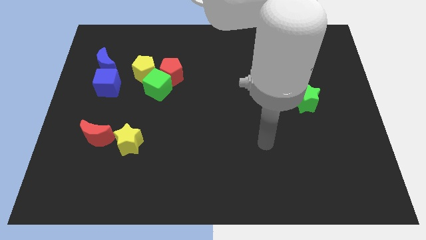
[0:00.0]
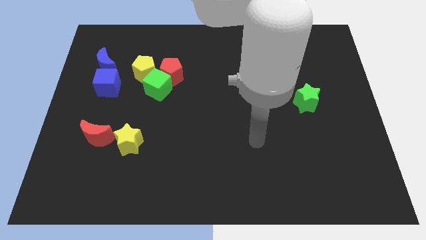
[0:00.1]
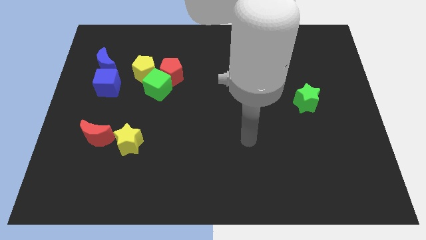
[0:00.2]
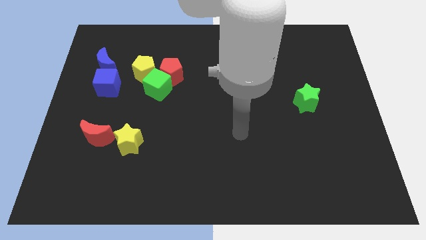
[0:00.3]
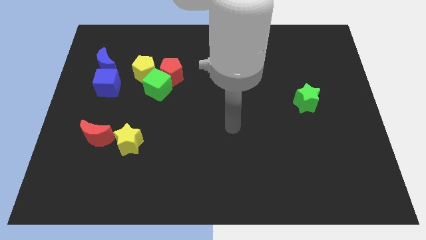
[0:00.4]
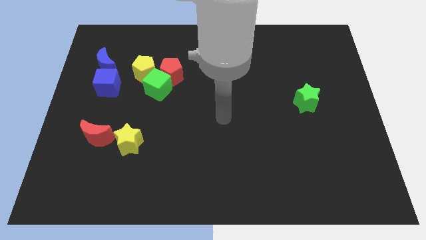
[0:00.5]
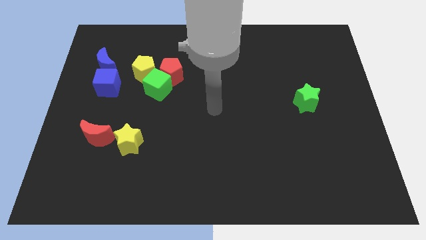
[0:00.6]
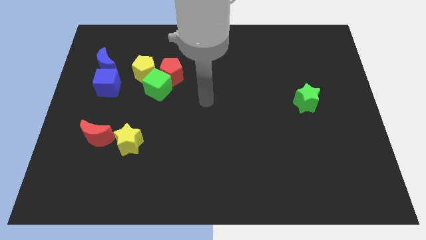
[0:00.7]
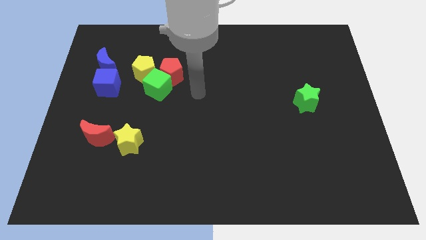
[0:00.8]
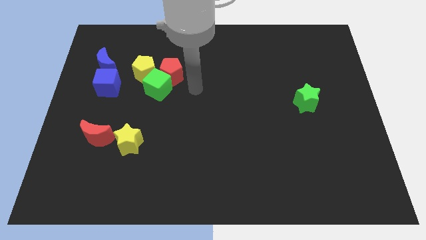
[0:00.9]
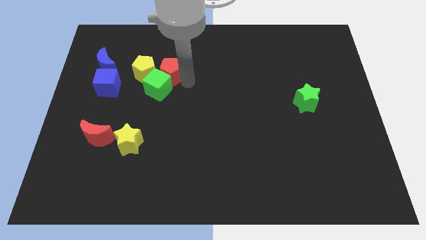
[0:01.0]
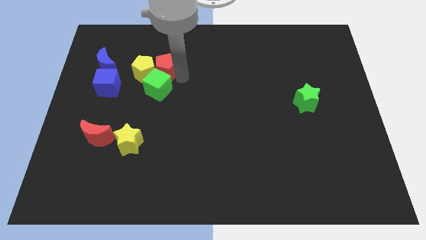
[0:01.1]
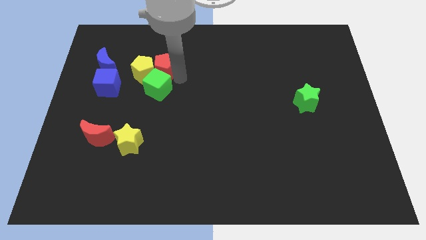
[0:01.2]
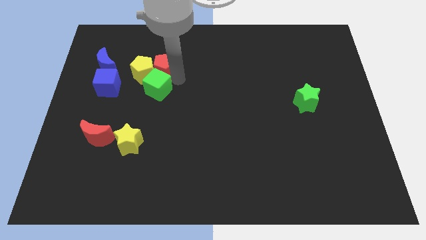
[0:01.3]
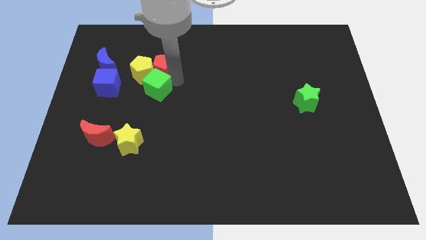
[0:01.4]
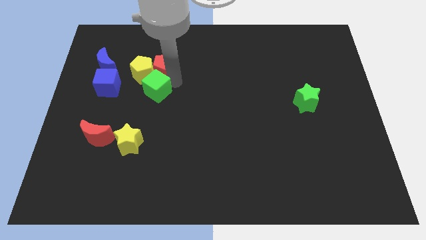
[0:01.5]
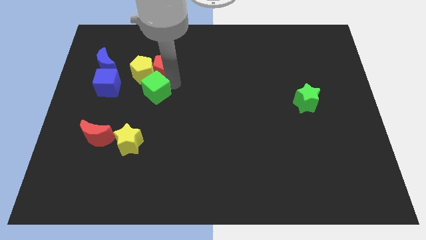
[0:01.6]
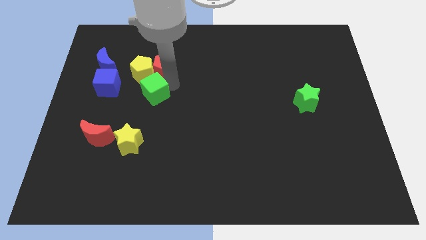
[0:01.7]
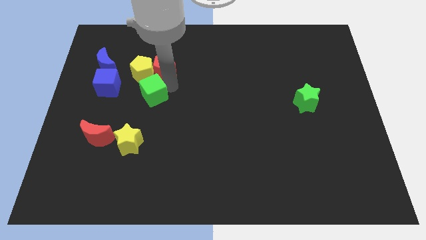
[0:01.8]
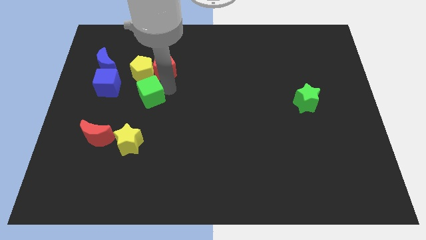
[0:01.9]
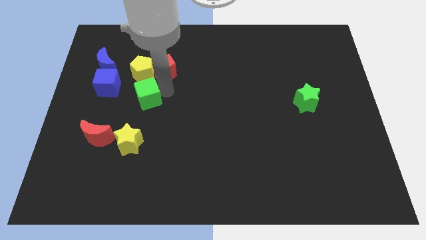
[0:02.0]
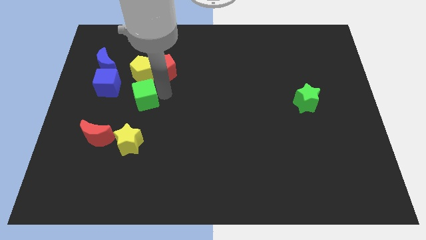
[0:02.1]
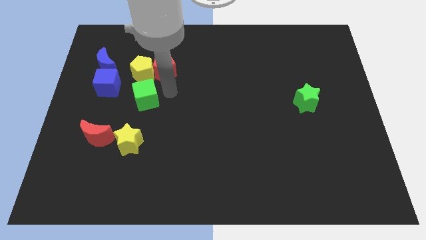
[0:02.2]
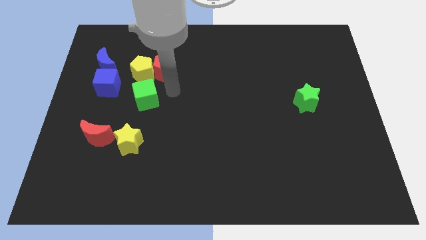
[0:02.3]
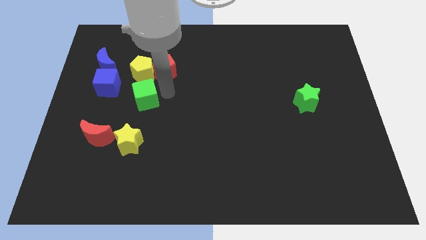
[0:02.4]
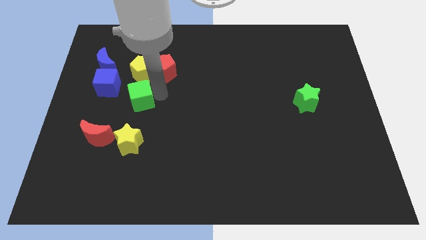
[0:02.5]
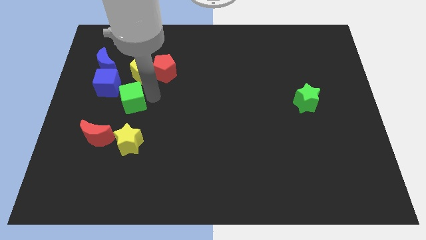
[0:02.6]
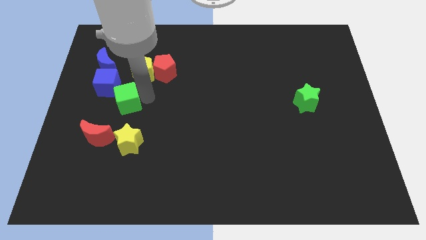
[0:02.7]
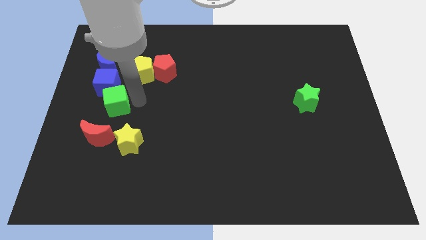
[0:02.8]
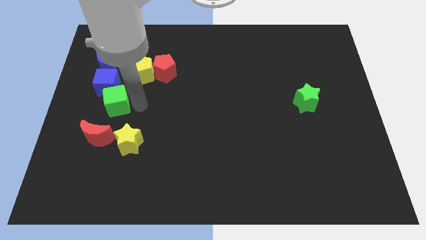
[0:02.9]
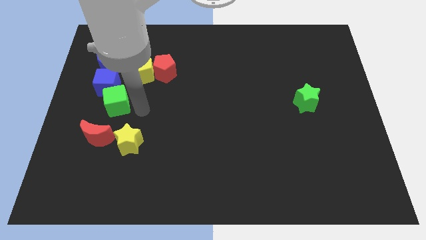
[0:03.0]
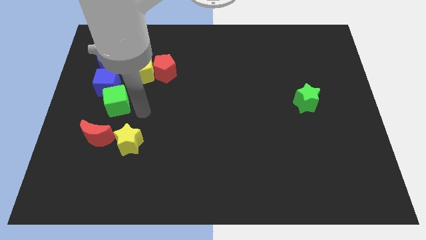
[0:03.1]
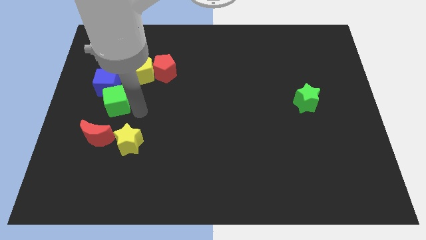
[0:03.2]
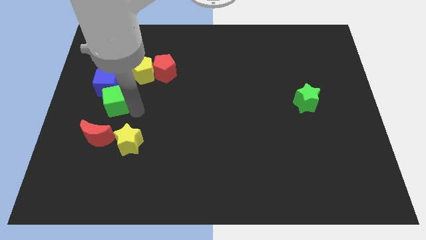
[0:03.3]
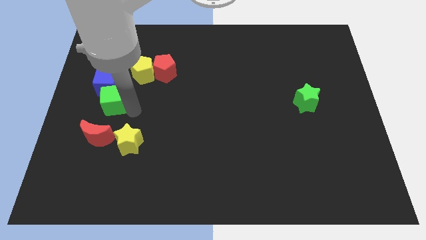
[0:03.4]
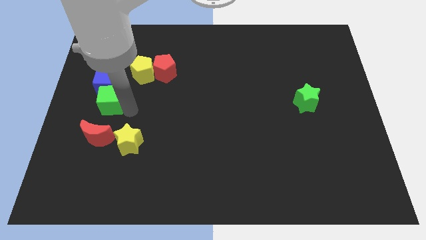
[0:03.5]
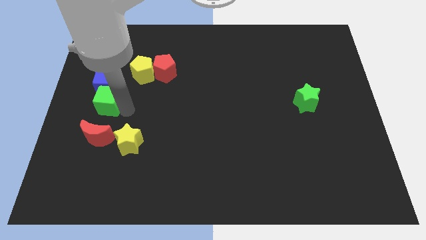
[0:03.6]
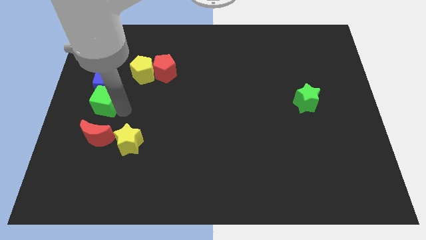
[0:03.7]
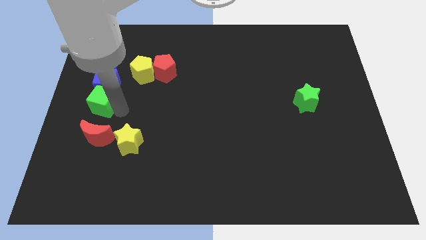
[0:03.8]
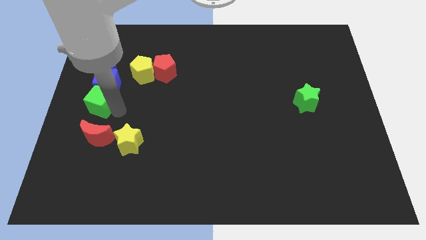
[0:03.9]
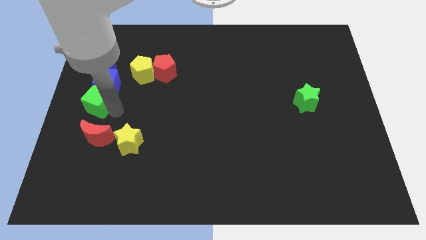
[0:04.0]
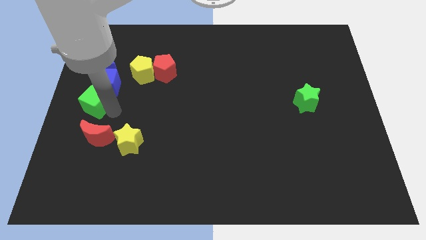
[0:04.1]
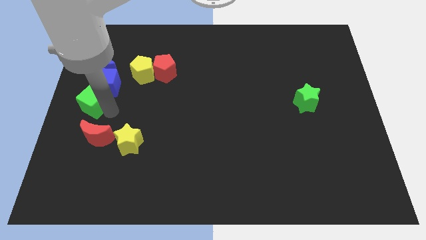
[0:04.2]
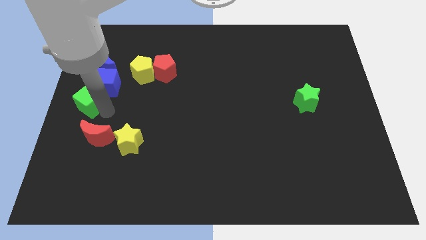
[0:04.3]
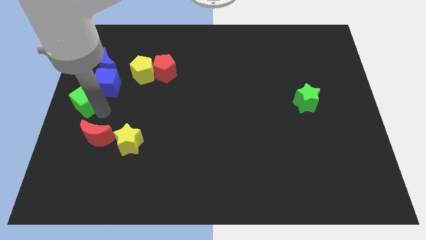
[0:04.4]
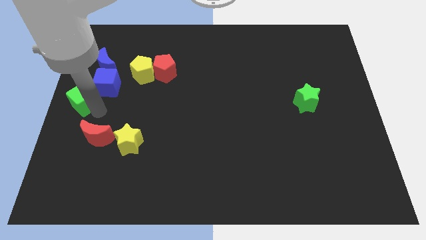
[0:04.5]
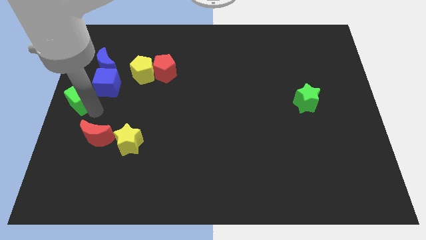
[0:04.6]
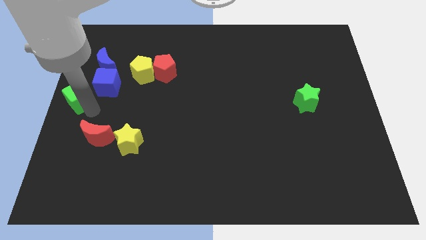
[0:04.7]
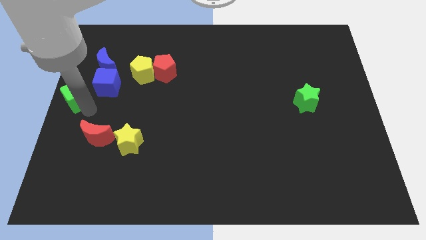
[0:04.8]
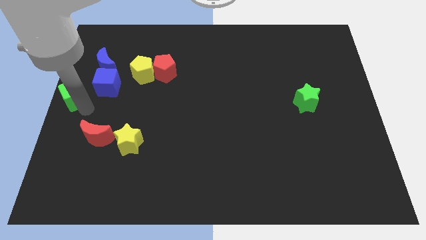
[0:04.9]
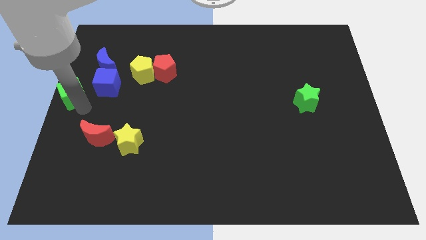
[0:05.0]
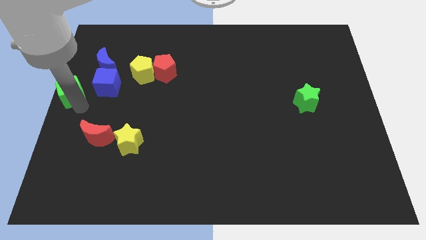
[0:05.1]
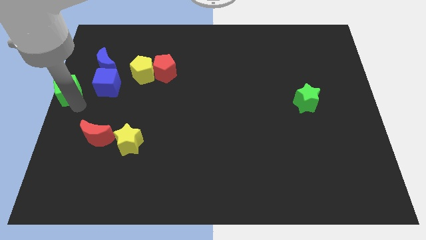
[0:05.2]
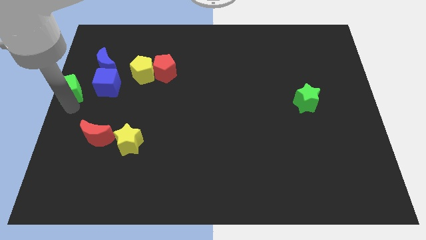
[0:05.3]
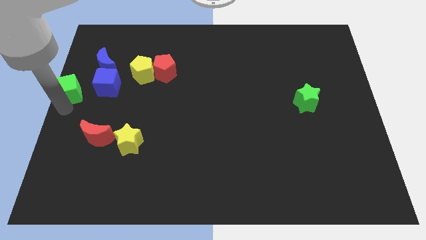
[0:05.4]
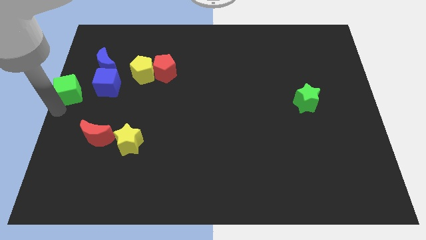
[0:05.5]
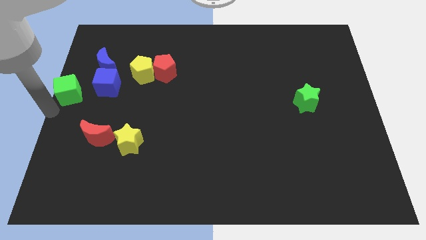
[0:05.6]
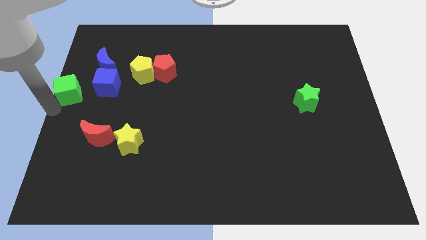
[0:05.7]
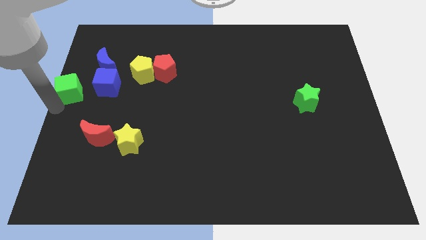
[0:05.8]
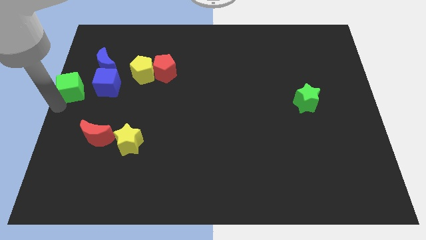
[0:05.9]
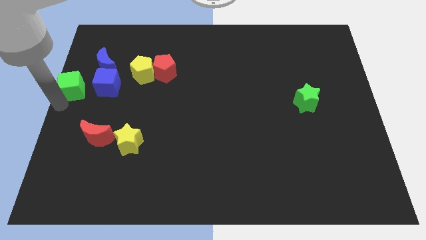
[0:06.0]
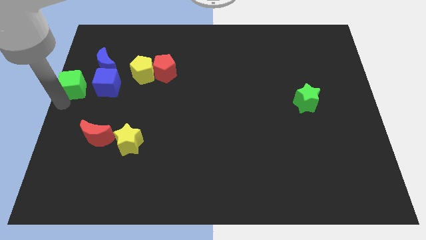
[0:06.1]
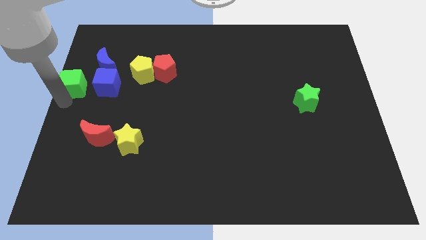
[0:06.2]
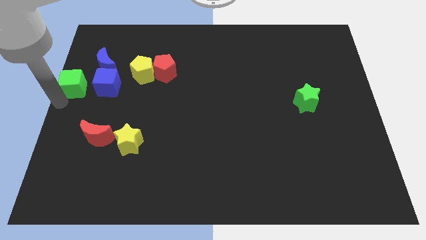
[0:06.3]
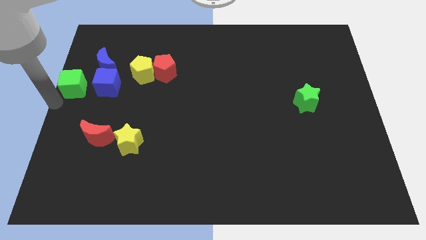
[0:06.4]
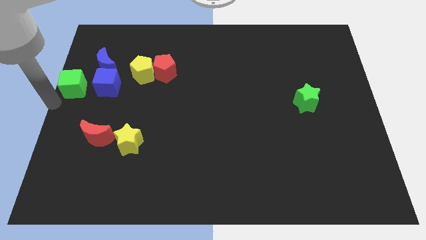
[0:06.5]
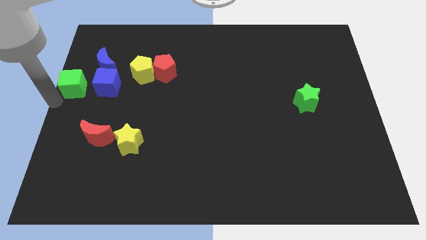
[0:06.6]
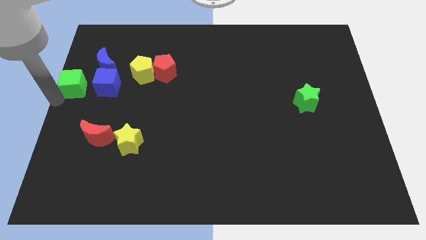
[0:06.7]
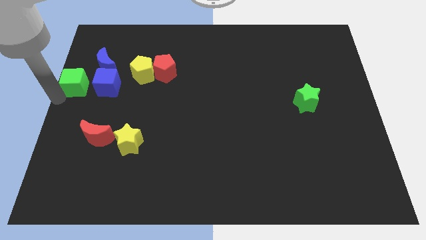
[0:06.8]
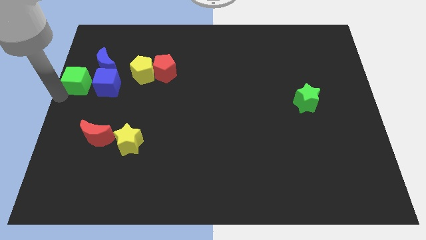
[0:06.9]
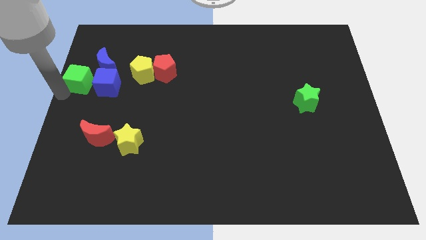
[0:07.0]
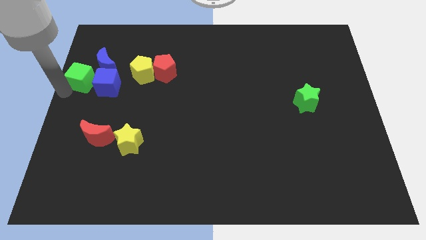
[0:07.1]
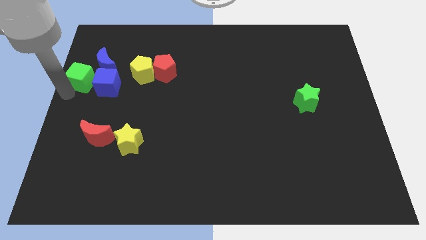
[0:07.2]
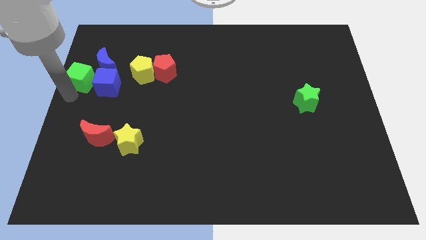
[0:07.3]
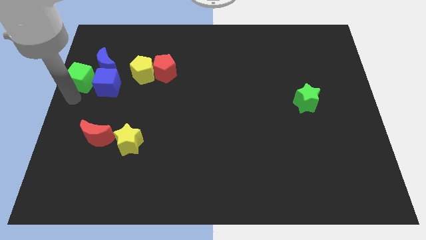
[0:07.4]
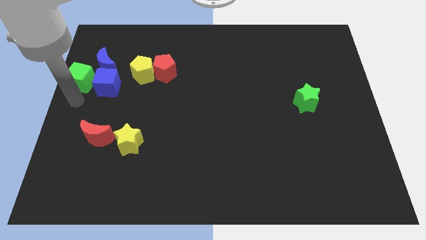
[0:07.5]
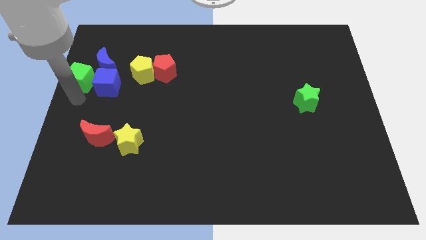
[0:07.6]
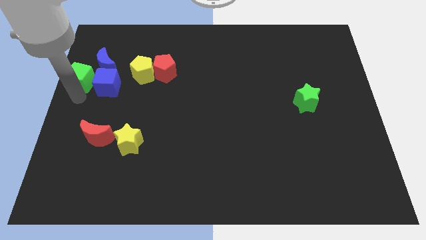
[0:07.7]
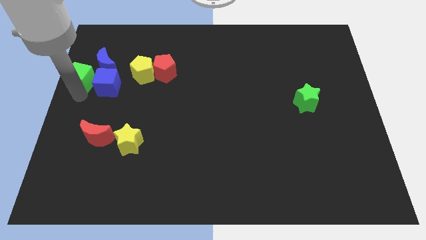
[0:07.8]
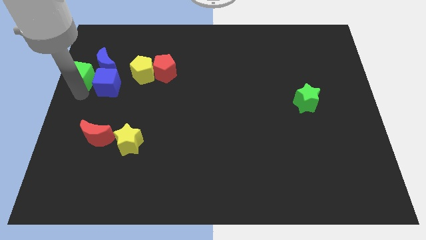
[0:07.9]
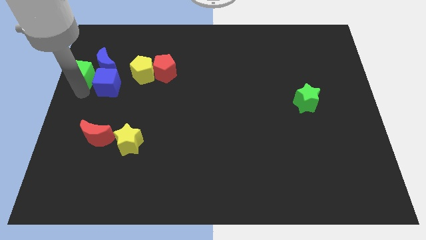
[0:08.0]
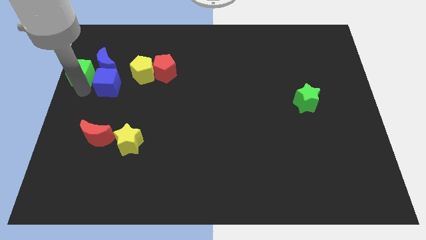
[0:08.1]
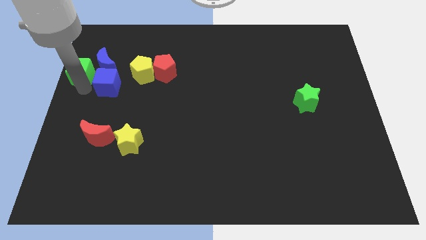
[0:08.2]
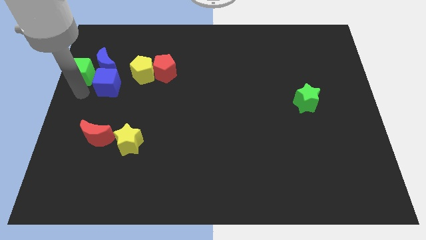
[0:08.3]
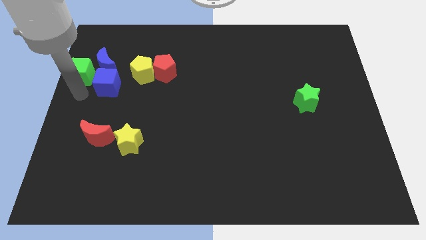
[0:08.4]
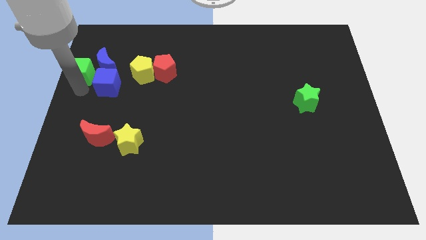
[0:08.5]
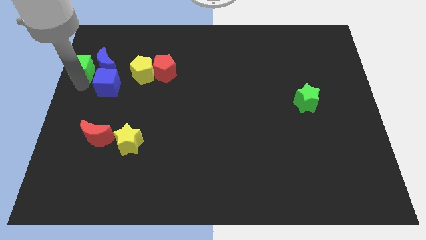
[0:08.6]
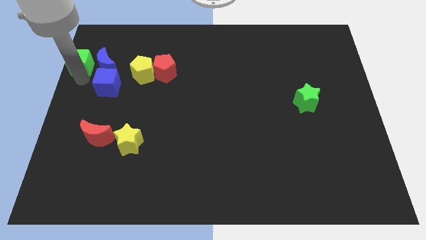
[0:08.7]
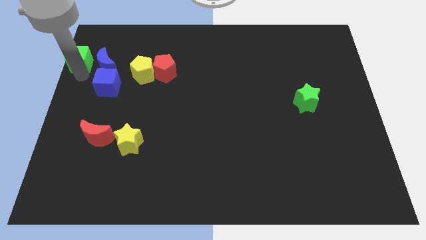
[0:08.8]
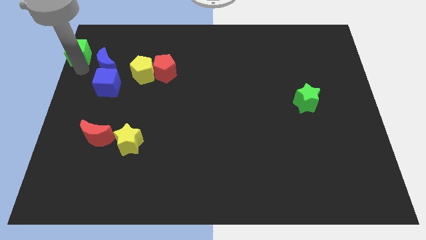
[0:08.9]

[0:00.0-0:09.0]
slide the green cube to the top left
